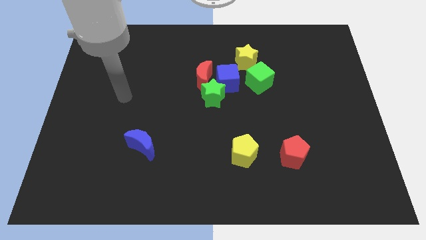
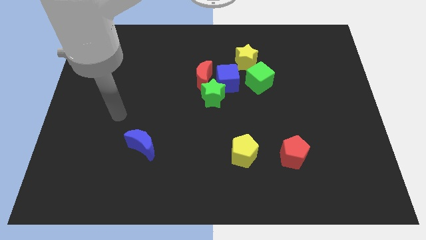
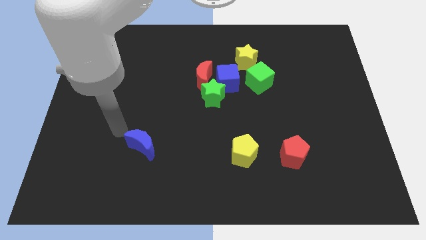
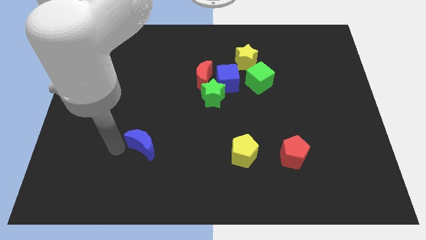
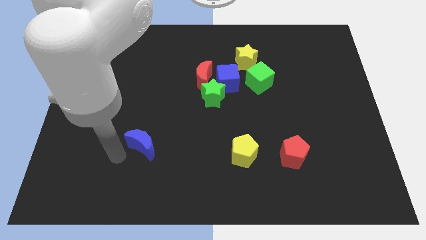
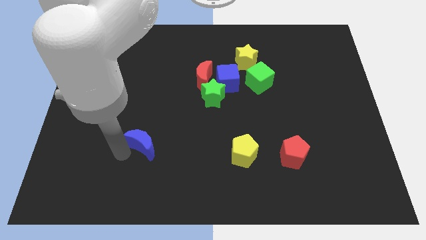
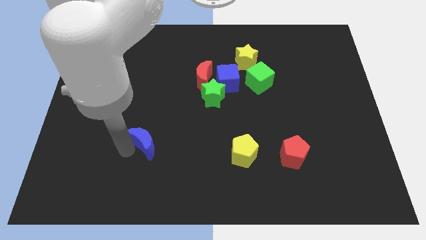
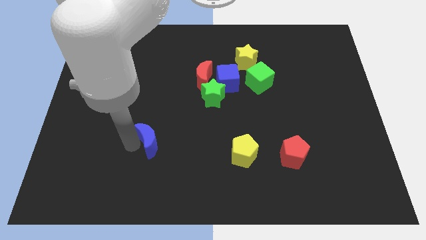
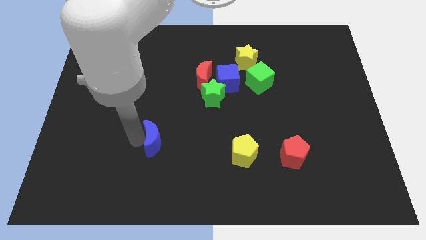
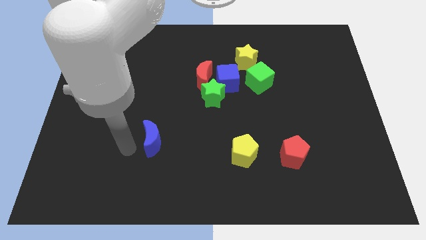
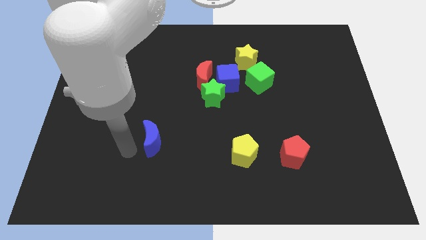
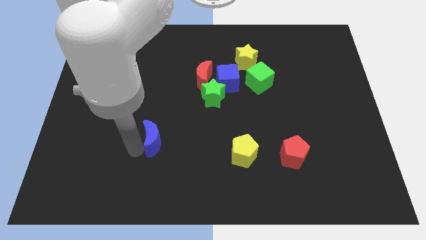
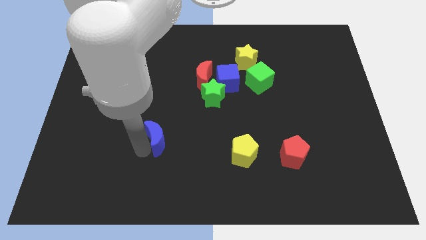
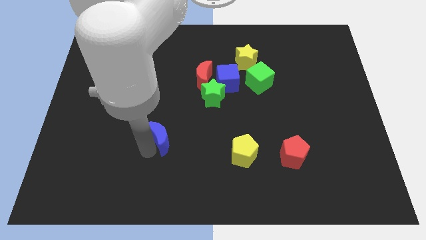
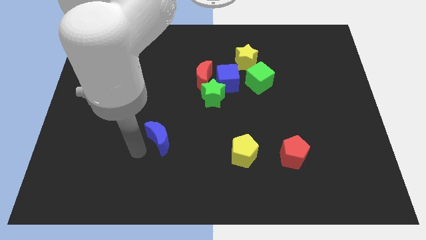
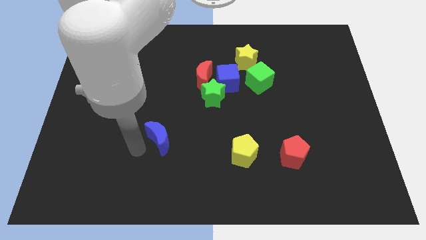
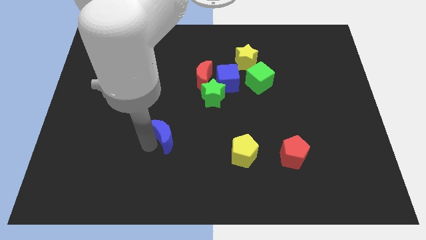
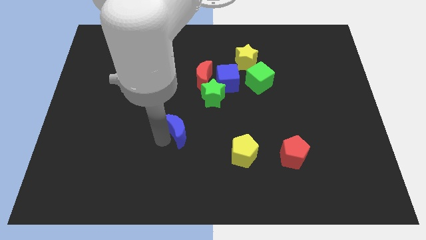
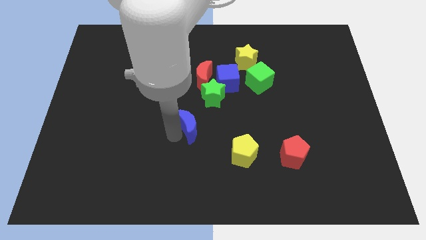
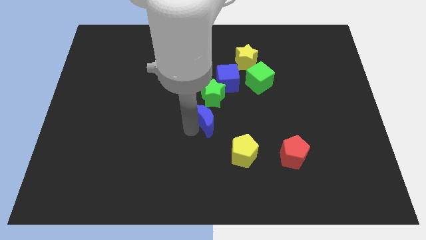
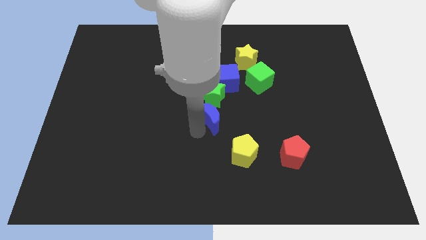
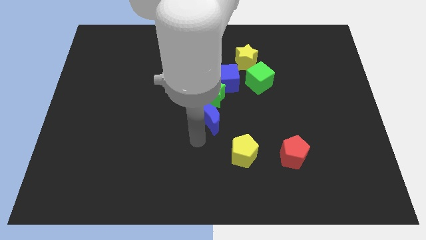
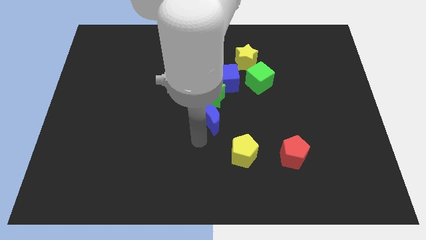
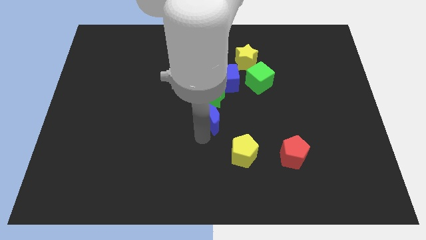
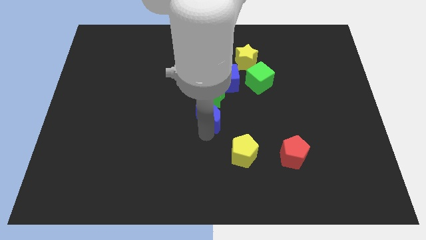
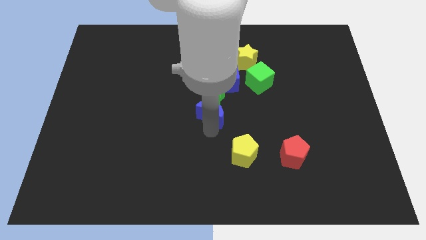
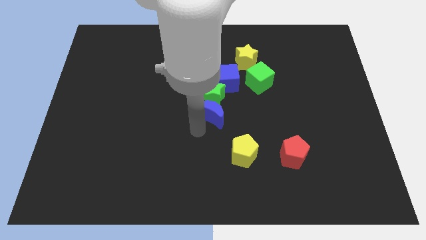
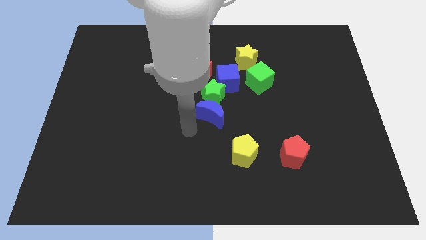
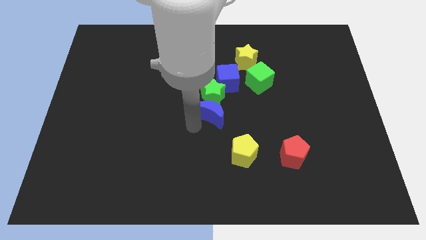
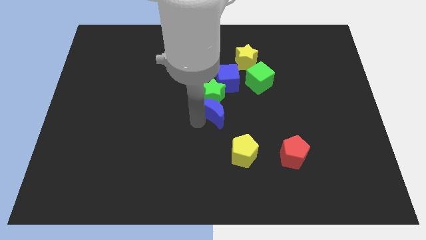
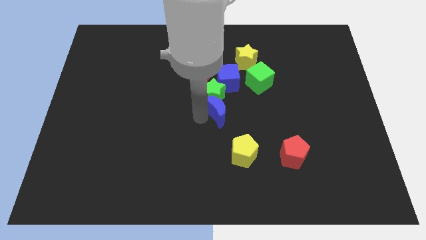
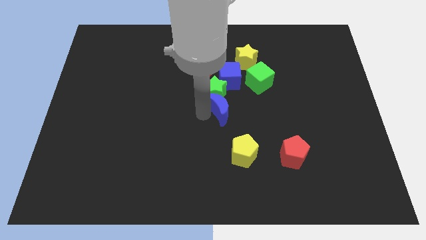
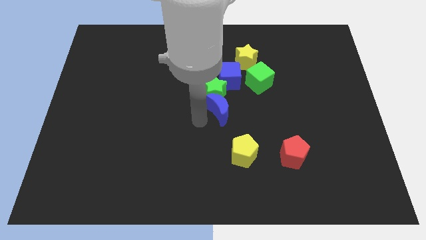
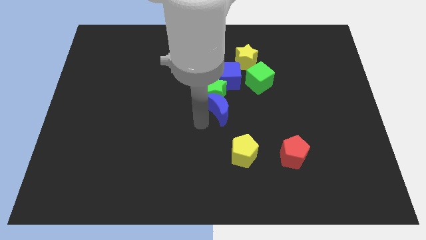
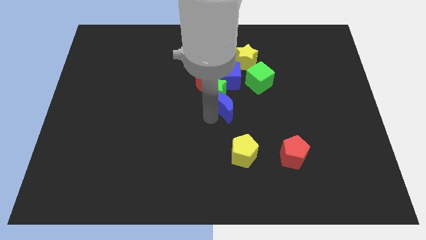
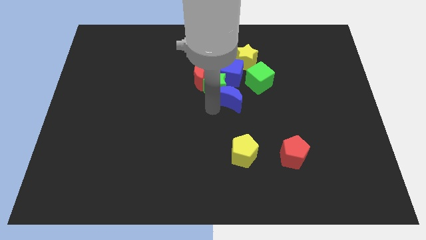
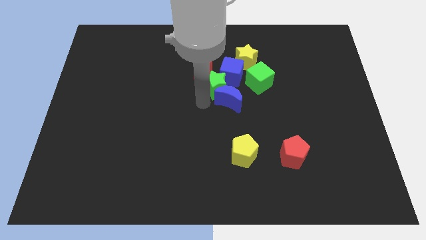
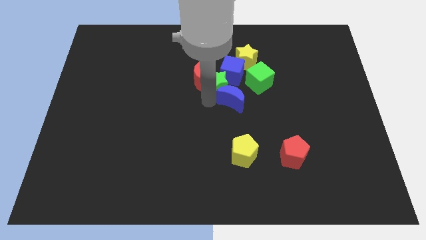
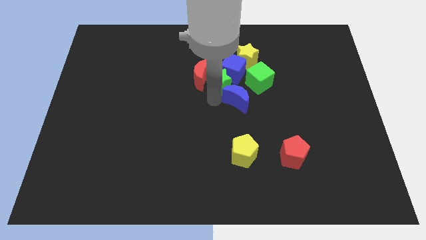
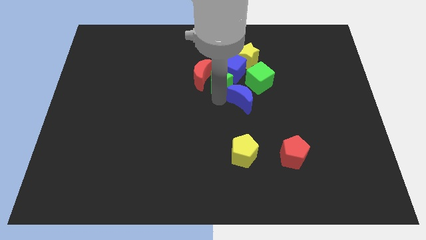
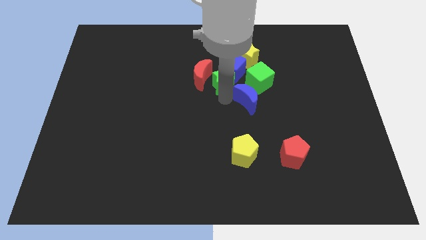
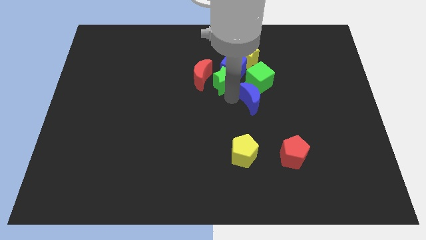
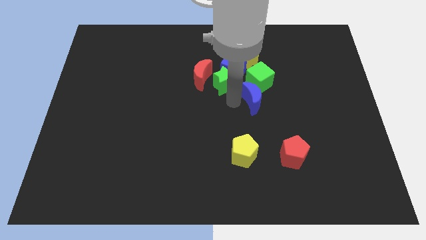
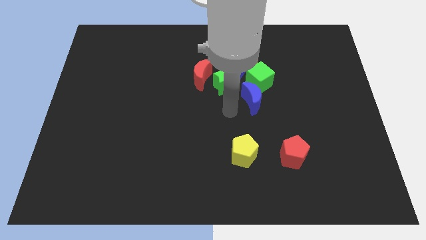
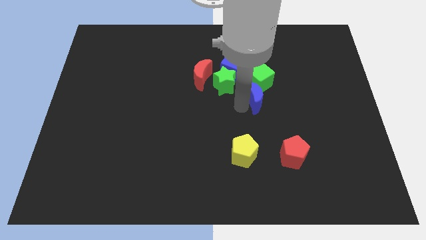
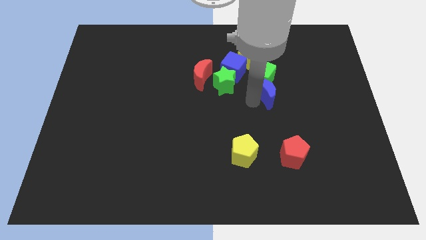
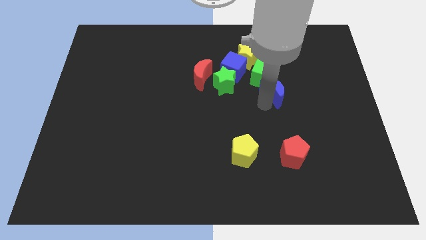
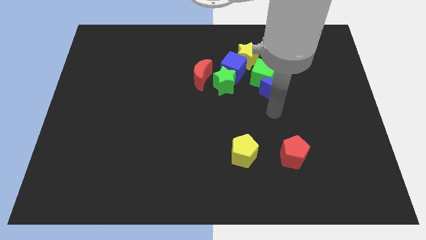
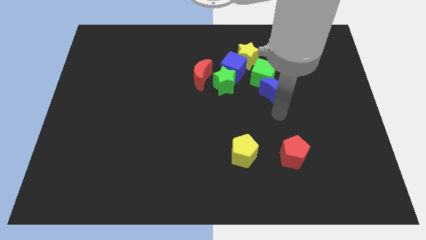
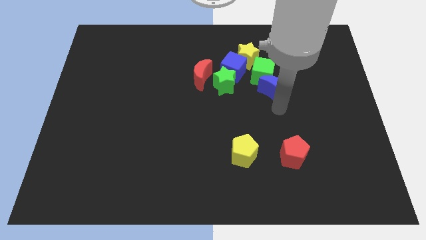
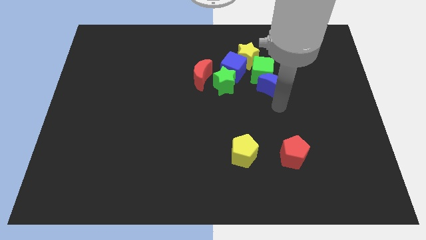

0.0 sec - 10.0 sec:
push the blue moon to the bottom right of the yellow star

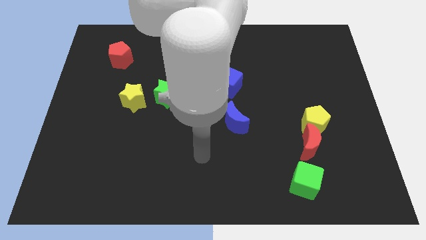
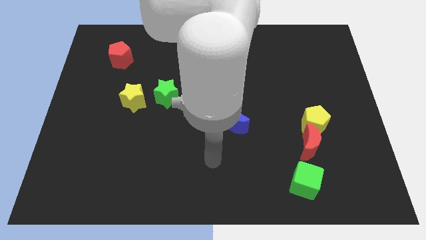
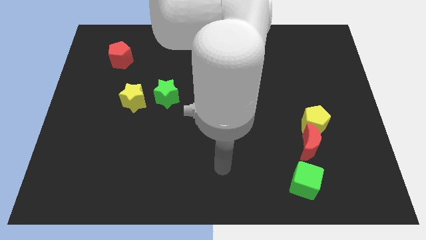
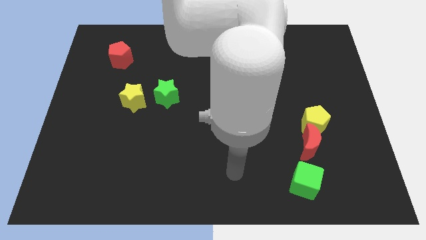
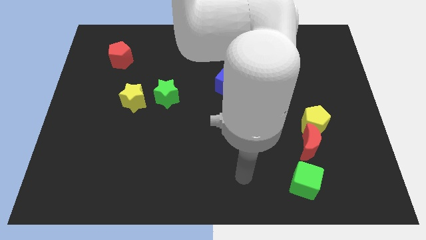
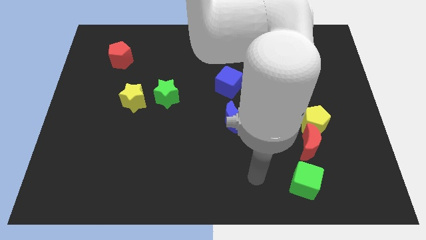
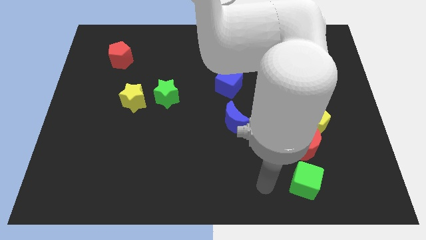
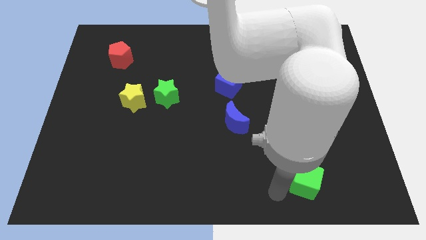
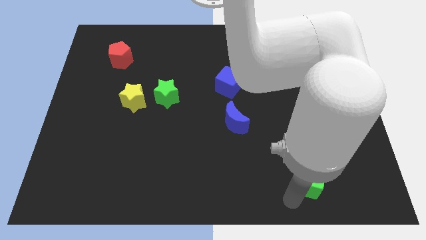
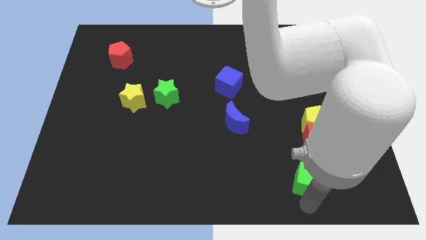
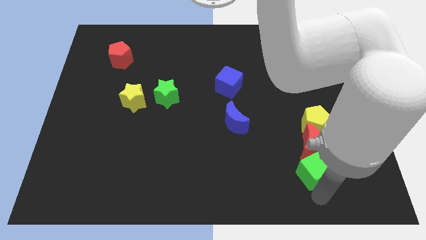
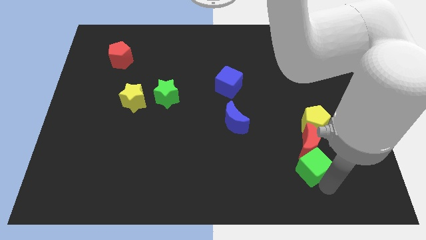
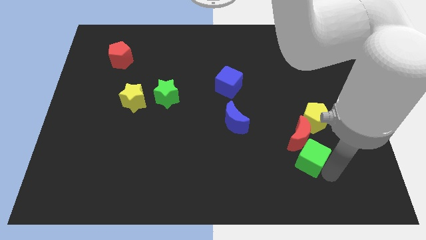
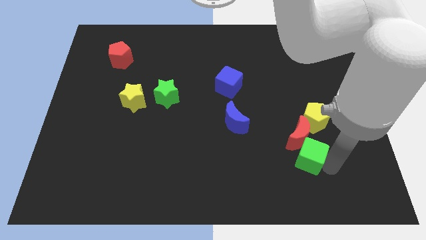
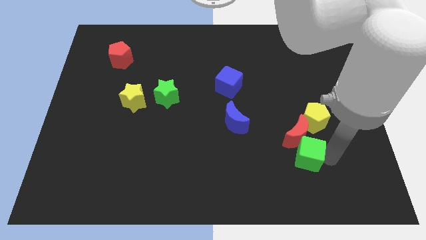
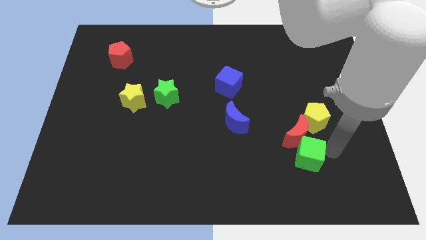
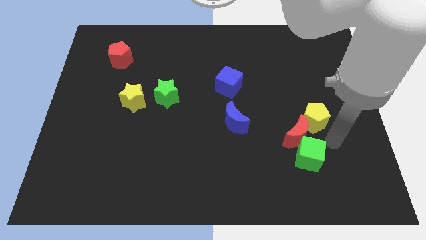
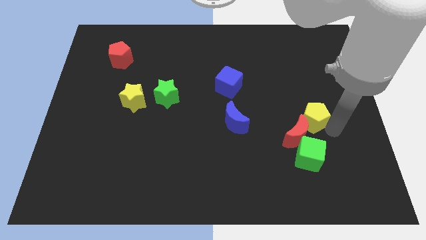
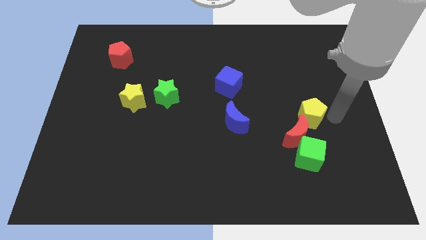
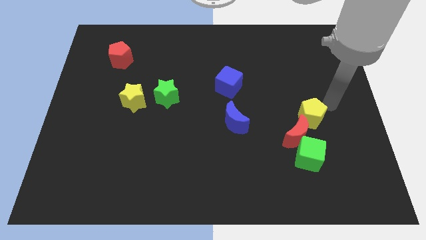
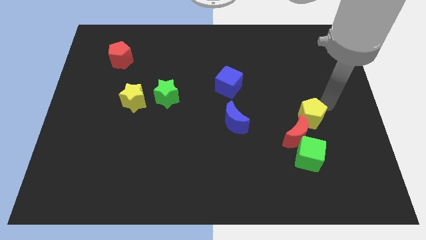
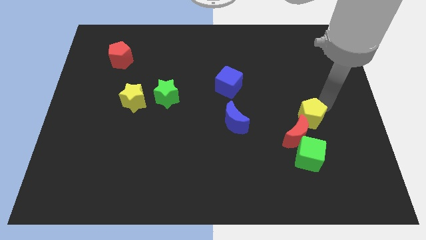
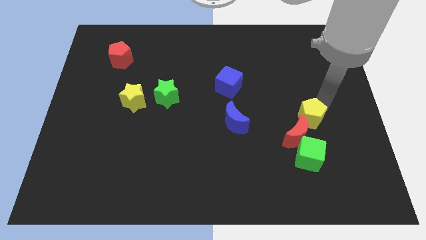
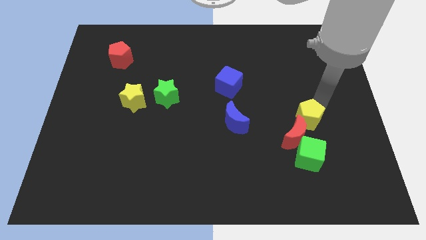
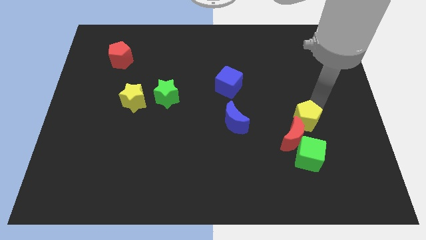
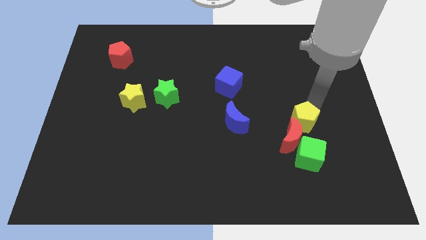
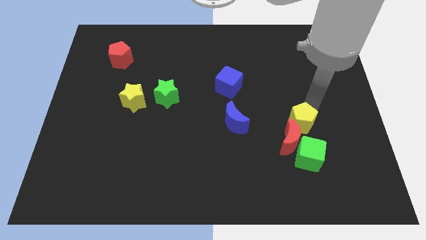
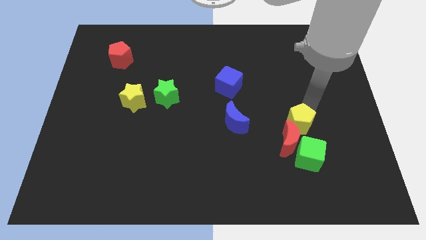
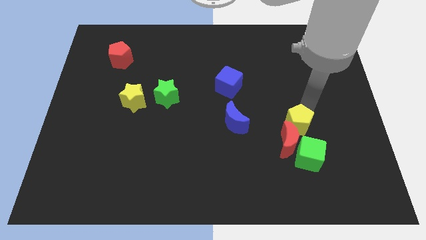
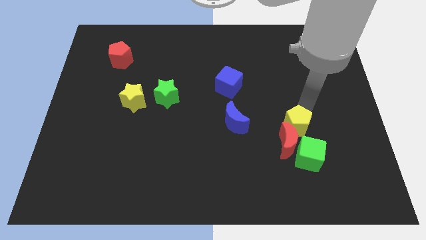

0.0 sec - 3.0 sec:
slide the yellow pentagon diagonally up and to the left of the green cube
